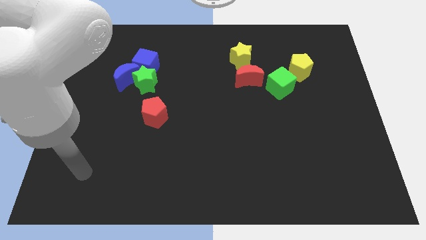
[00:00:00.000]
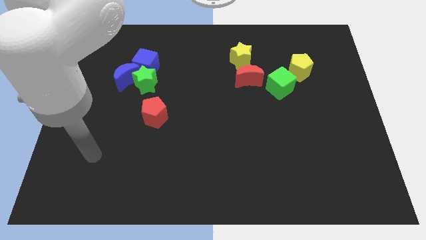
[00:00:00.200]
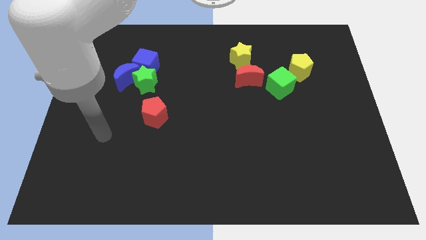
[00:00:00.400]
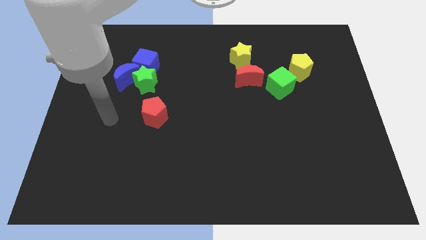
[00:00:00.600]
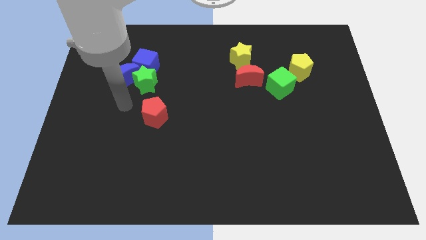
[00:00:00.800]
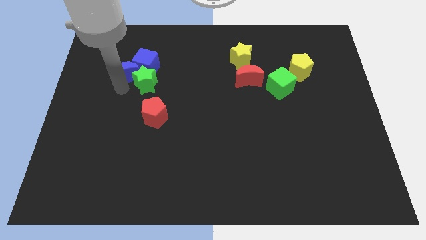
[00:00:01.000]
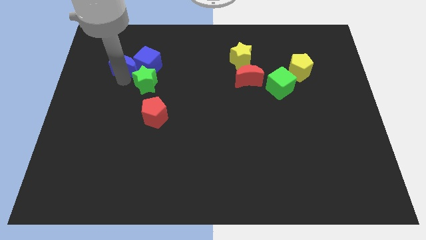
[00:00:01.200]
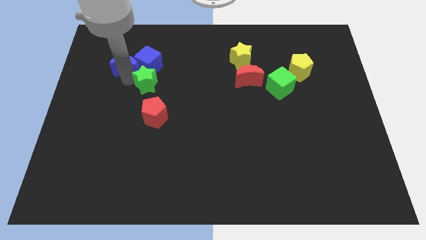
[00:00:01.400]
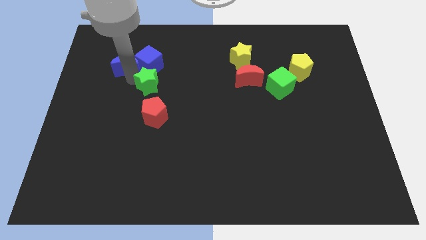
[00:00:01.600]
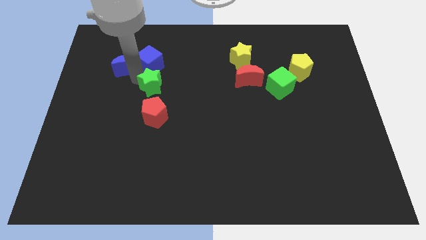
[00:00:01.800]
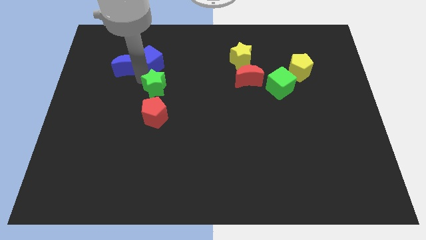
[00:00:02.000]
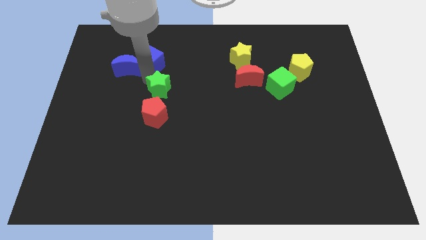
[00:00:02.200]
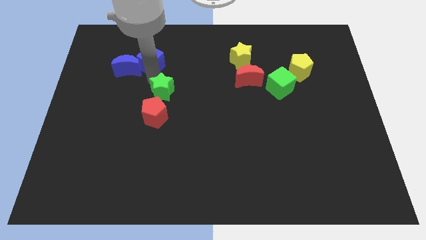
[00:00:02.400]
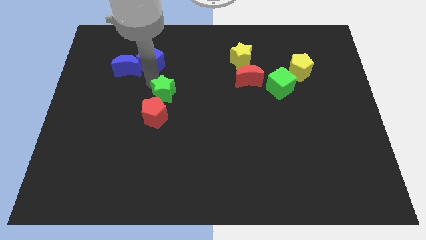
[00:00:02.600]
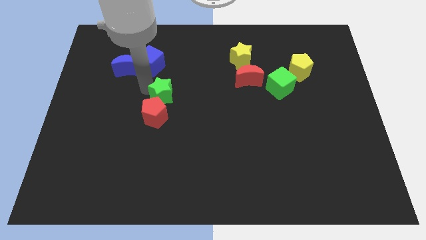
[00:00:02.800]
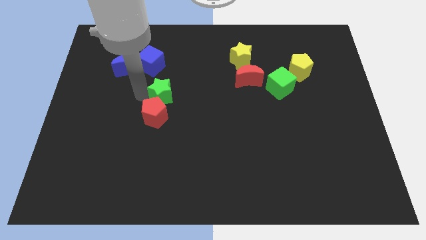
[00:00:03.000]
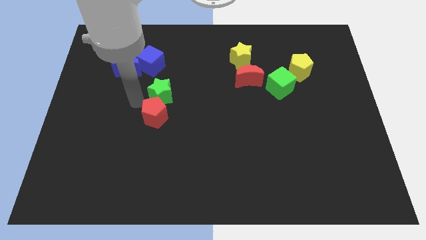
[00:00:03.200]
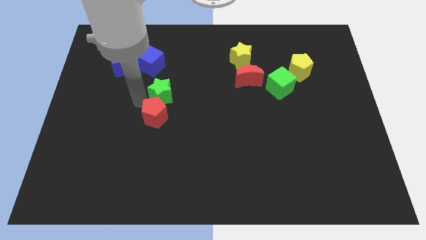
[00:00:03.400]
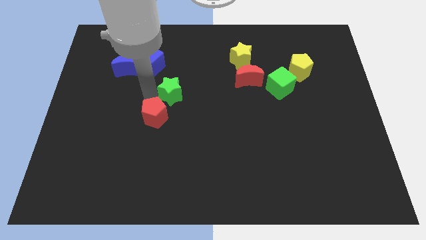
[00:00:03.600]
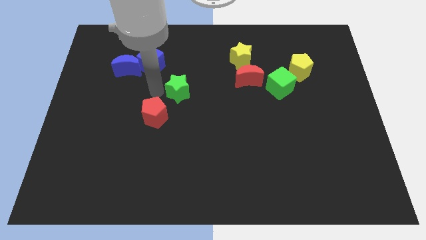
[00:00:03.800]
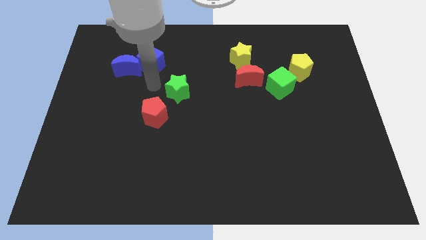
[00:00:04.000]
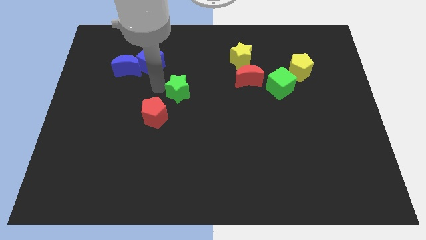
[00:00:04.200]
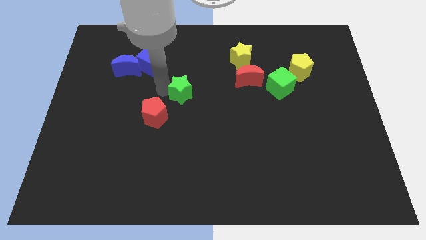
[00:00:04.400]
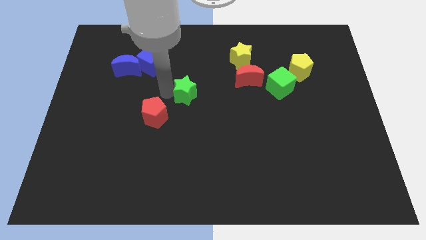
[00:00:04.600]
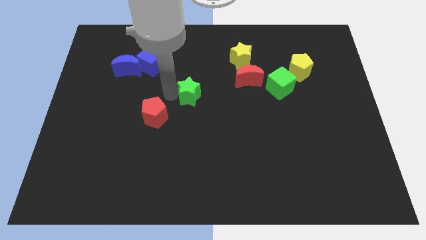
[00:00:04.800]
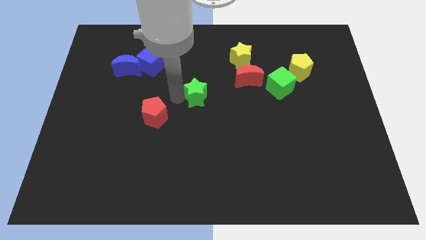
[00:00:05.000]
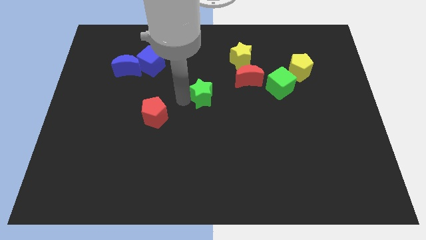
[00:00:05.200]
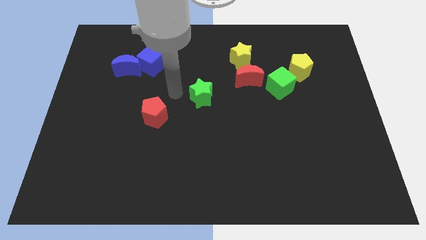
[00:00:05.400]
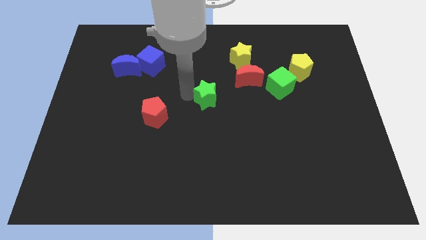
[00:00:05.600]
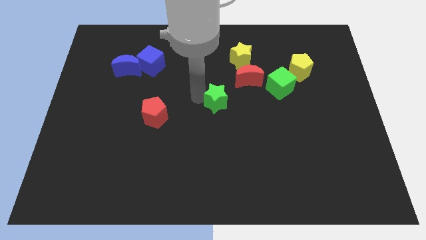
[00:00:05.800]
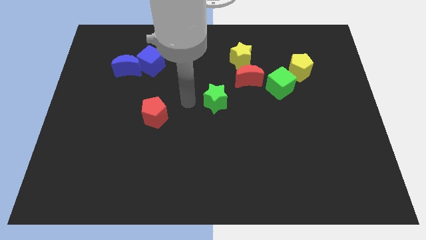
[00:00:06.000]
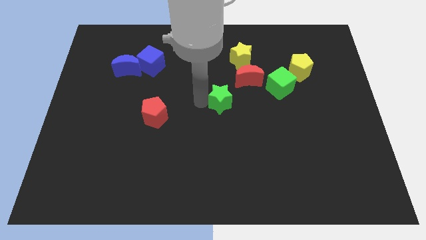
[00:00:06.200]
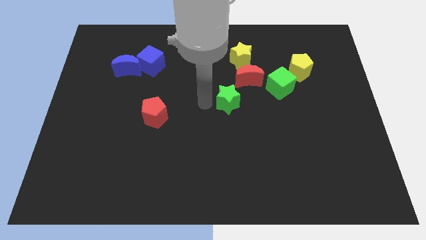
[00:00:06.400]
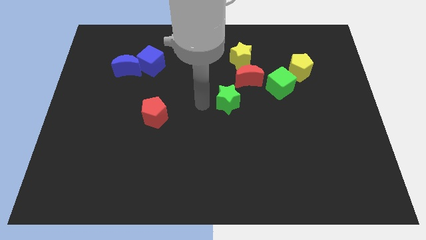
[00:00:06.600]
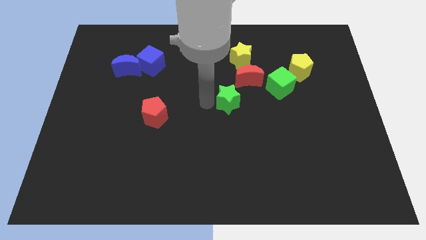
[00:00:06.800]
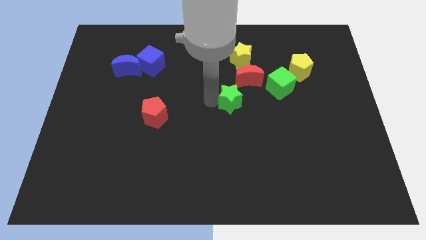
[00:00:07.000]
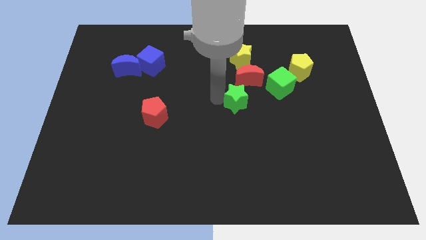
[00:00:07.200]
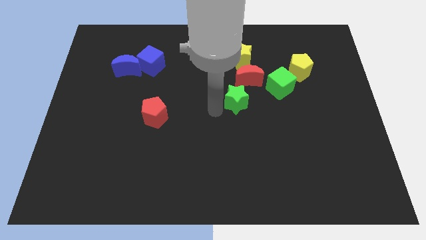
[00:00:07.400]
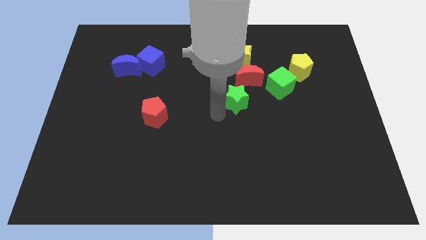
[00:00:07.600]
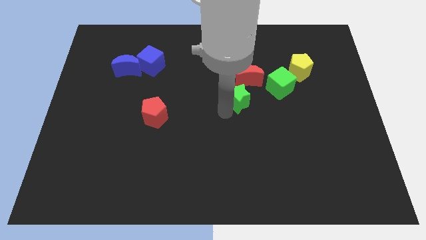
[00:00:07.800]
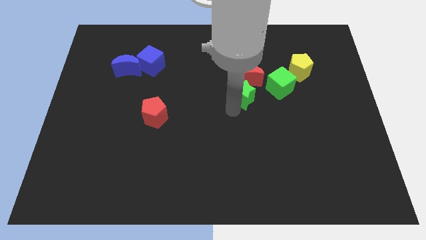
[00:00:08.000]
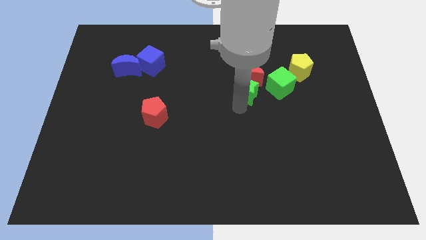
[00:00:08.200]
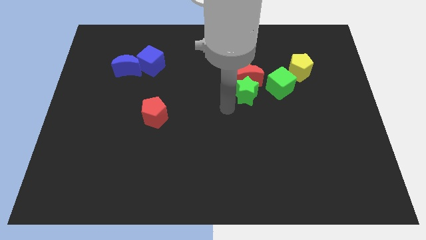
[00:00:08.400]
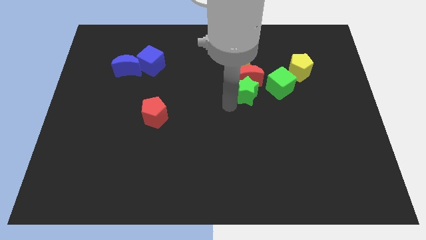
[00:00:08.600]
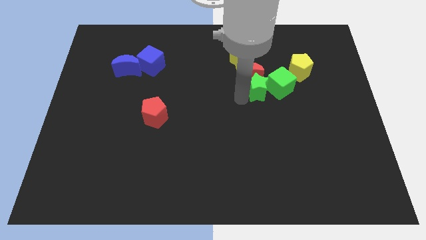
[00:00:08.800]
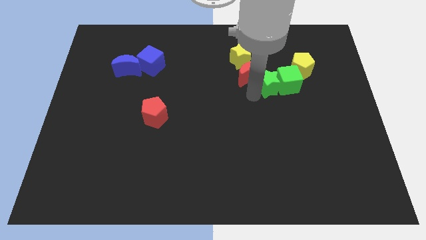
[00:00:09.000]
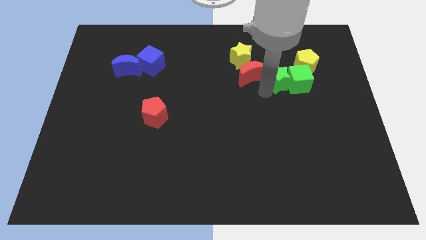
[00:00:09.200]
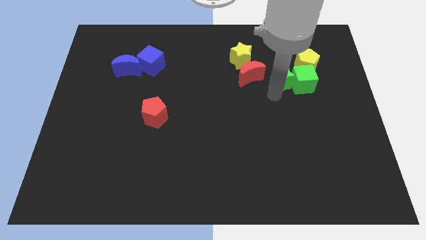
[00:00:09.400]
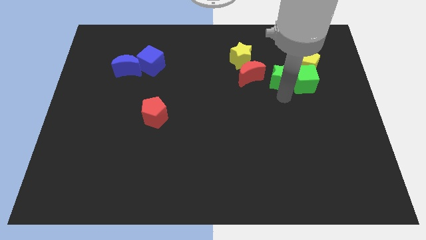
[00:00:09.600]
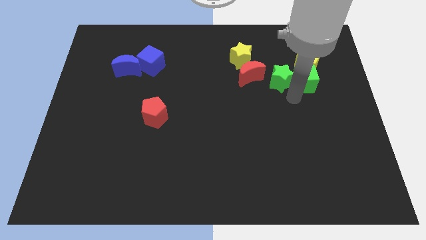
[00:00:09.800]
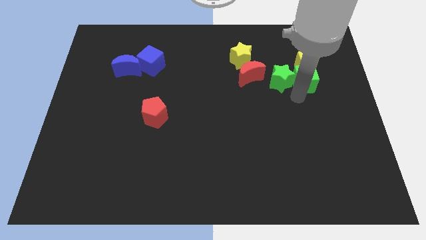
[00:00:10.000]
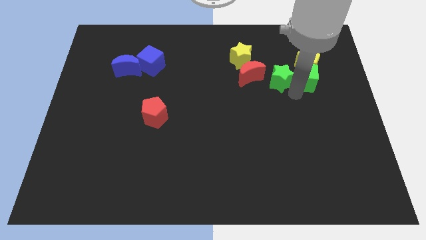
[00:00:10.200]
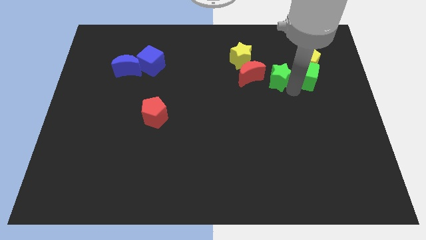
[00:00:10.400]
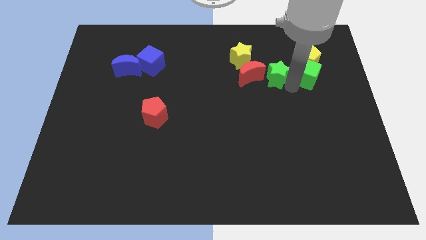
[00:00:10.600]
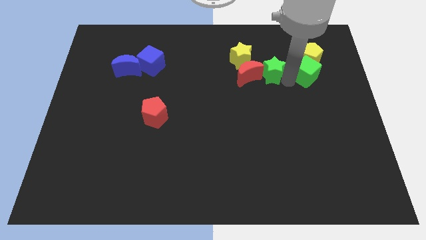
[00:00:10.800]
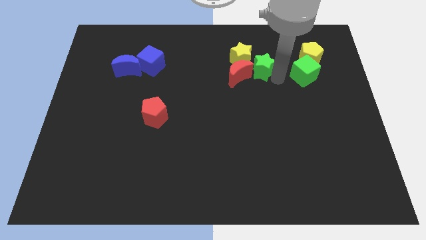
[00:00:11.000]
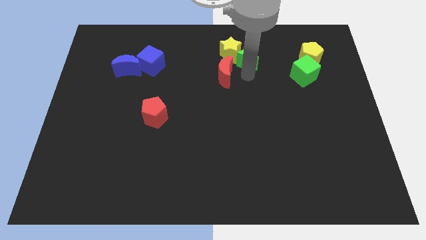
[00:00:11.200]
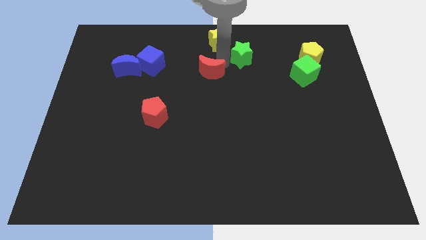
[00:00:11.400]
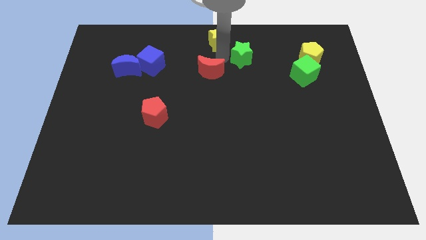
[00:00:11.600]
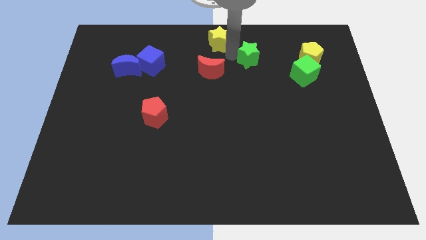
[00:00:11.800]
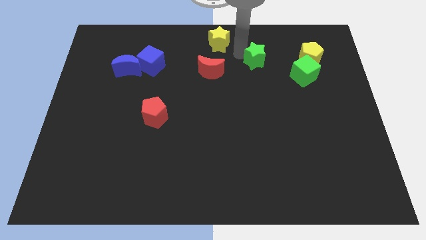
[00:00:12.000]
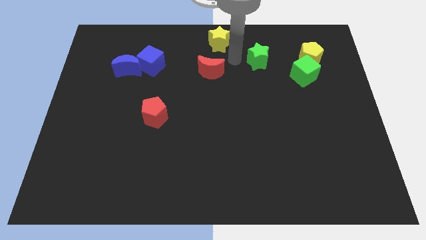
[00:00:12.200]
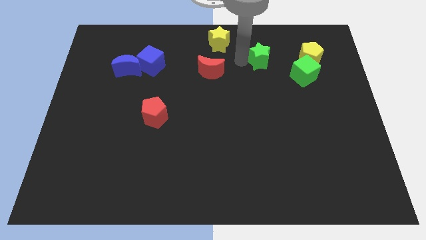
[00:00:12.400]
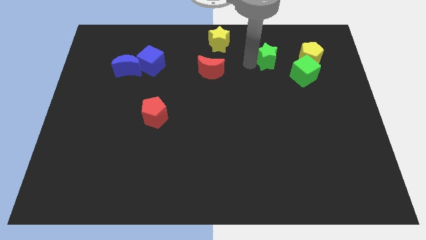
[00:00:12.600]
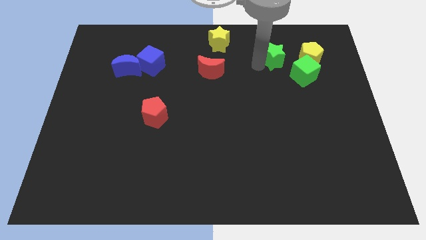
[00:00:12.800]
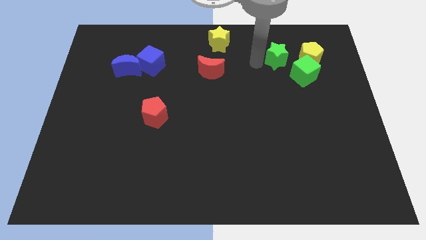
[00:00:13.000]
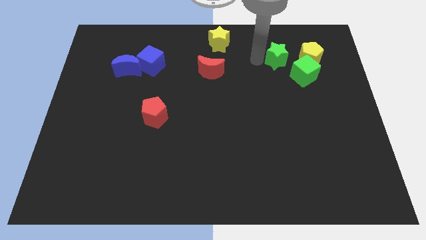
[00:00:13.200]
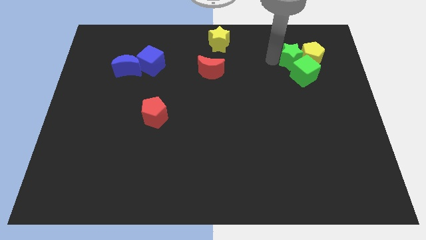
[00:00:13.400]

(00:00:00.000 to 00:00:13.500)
move the green star towards the yellow pentagon
